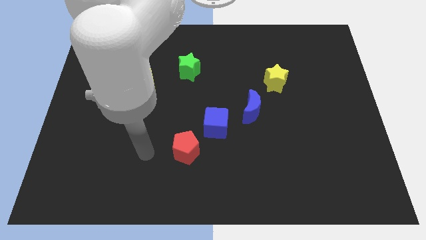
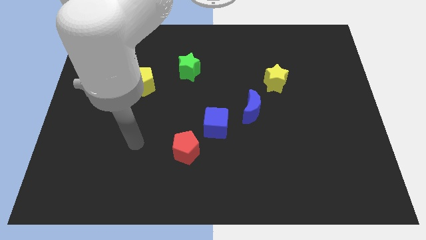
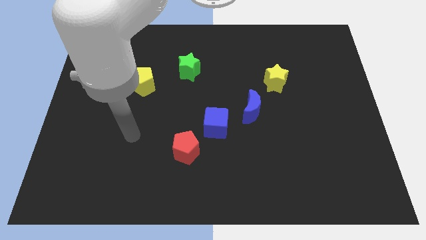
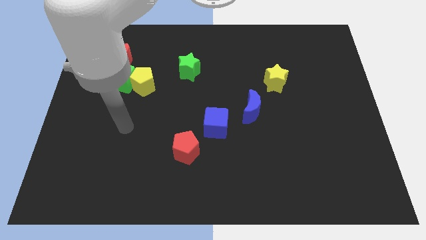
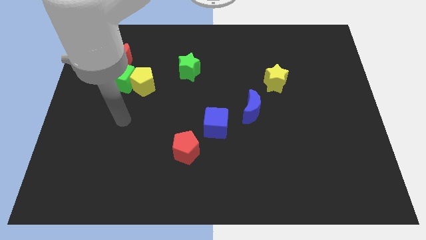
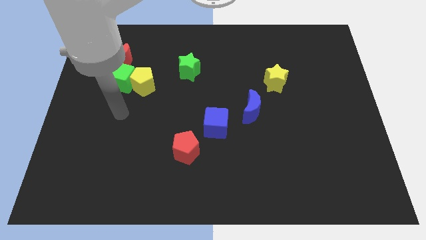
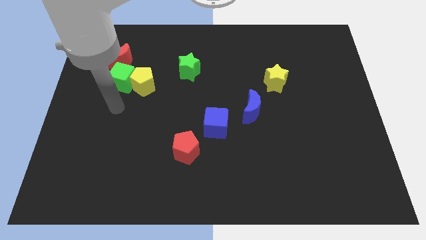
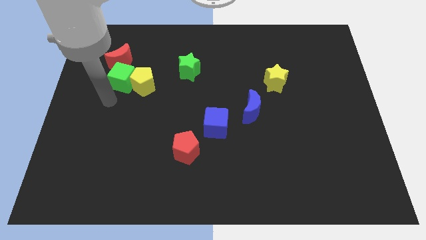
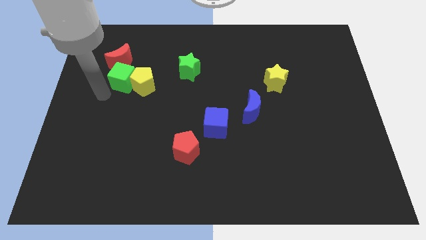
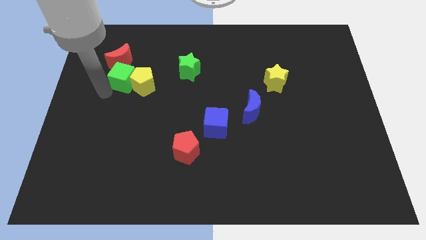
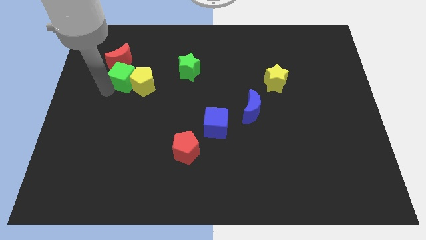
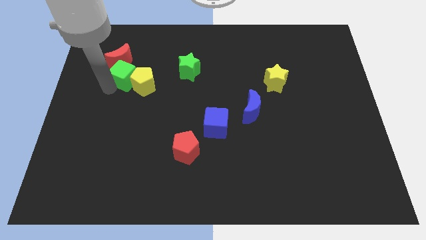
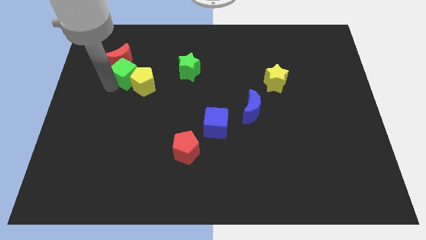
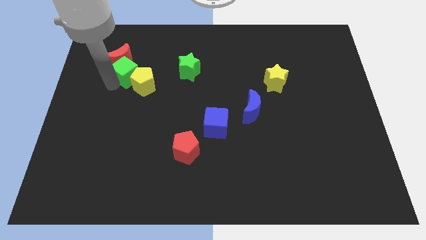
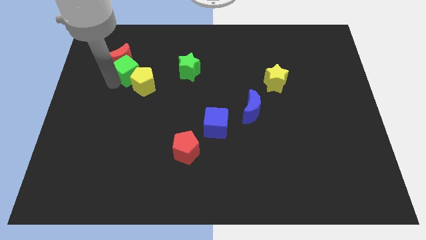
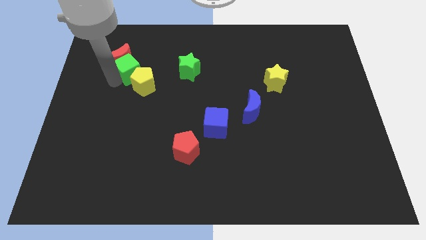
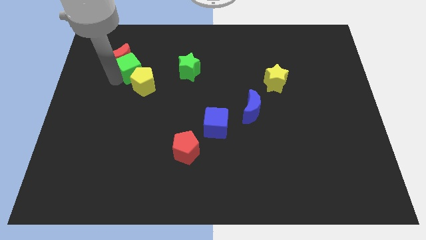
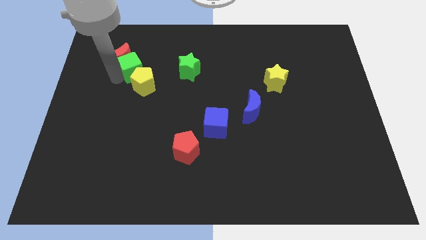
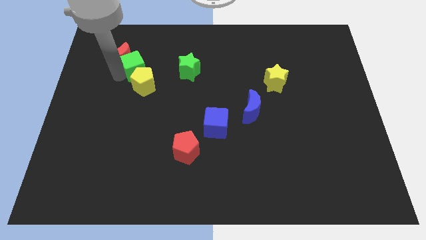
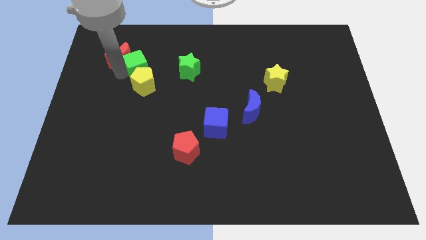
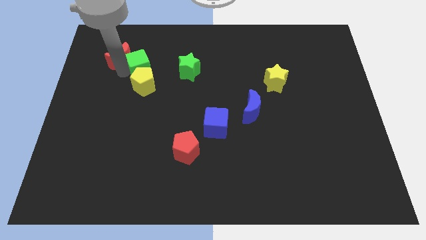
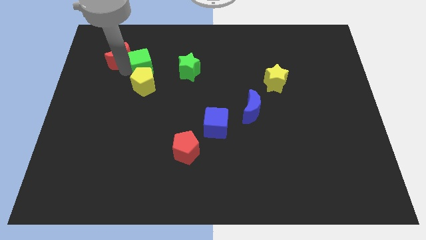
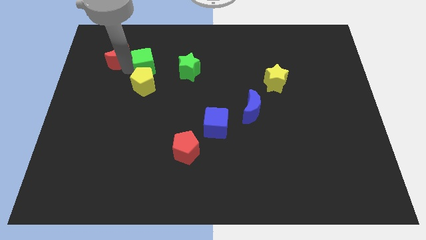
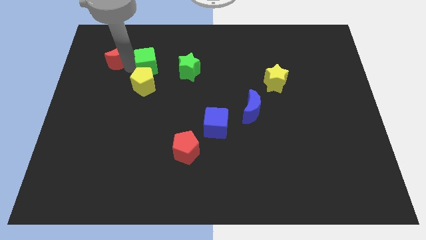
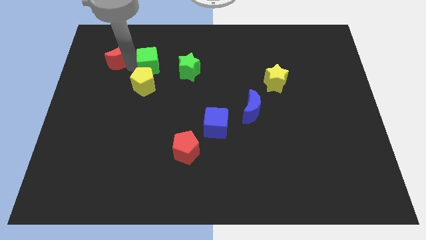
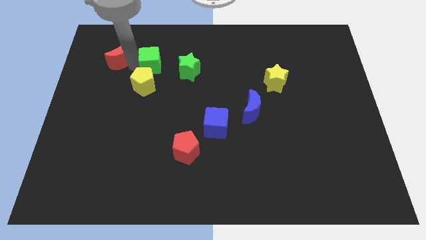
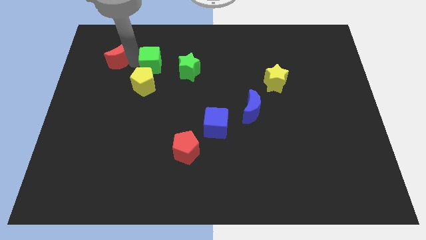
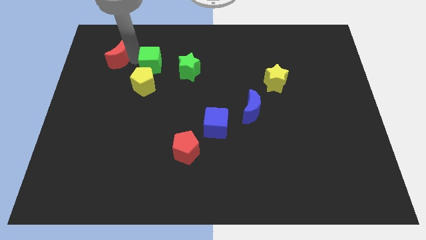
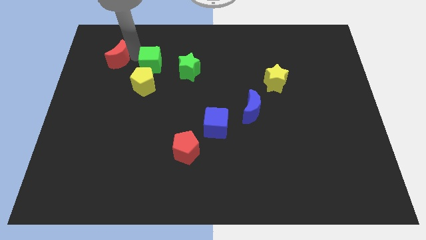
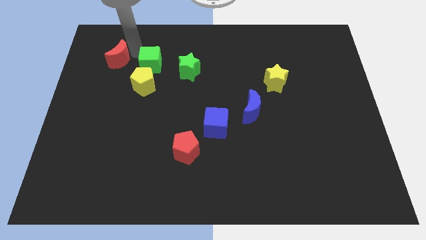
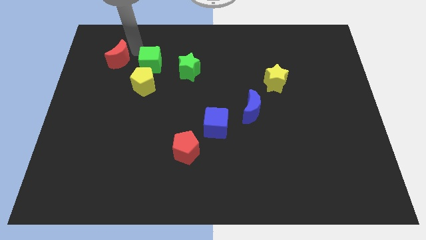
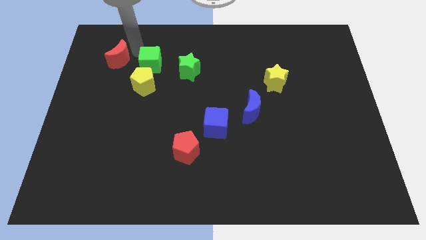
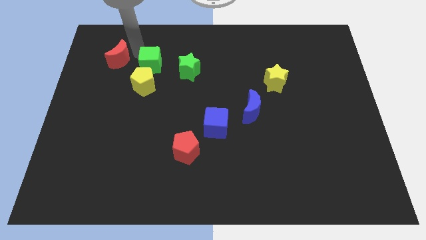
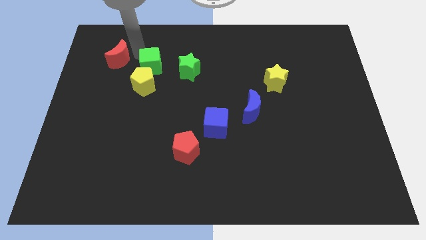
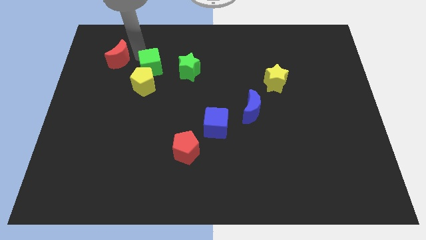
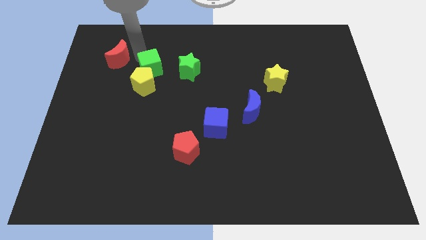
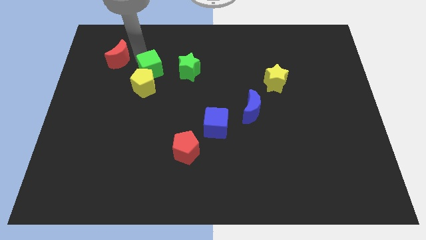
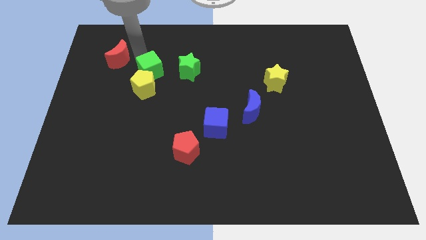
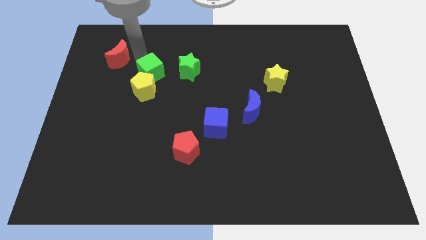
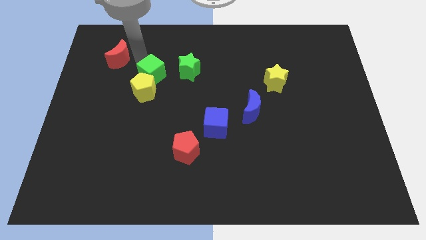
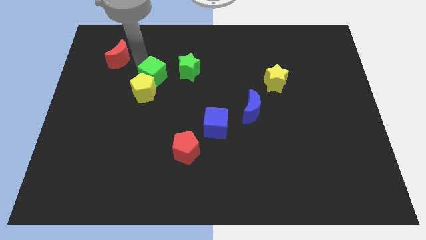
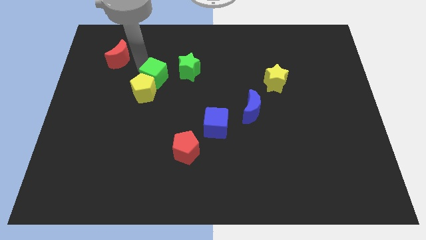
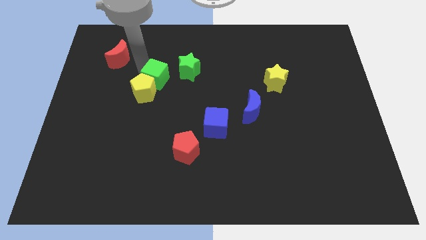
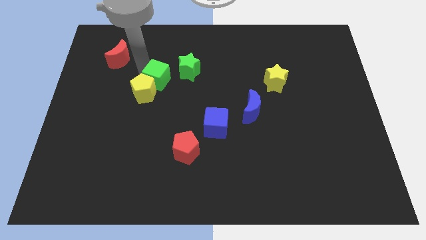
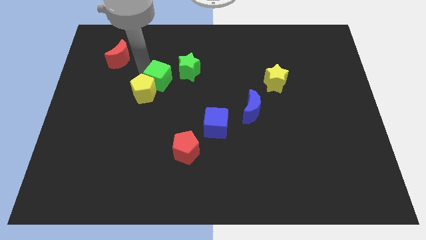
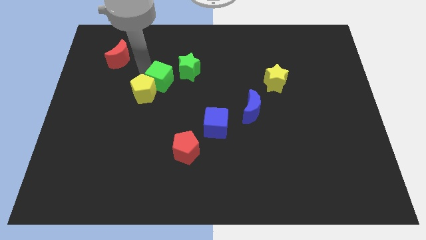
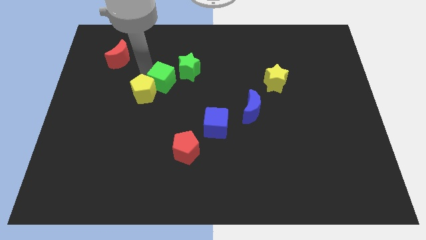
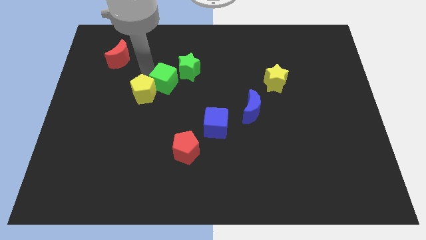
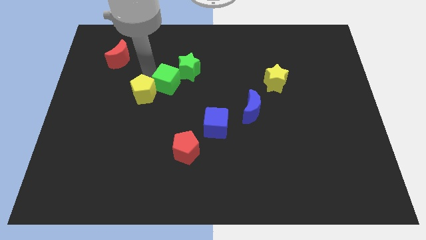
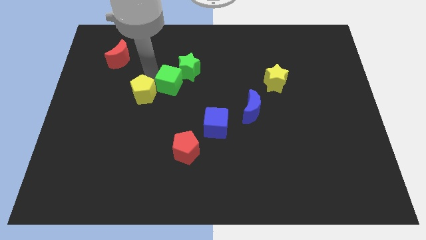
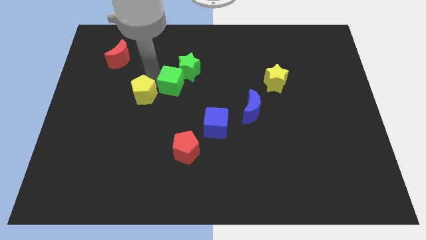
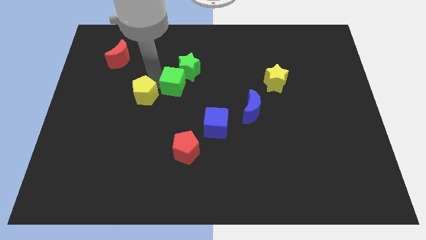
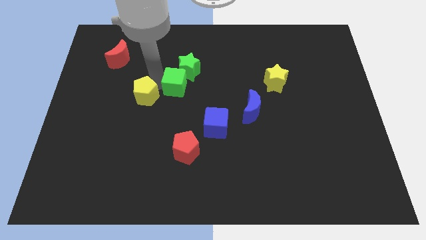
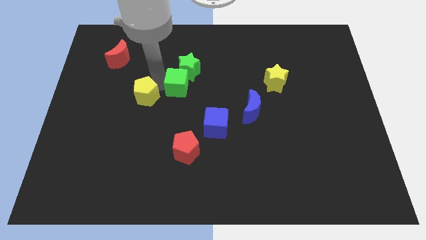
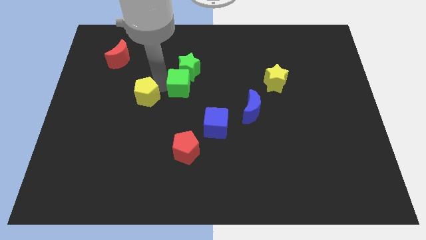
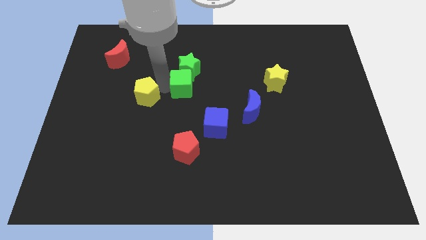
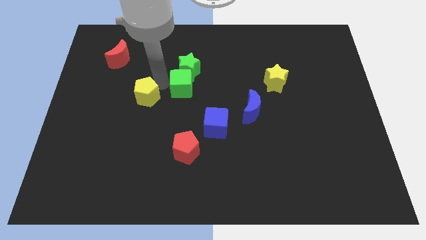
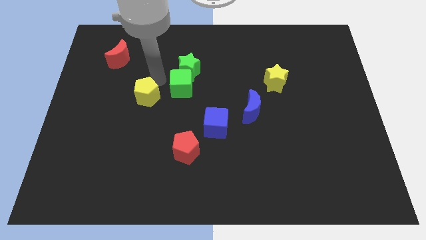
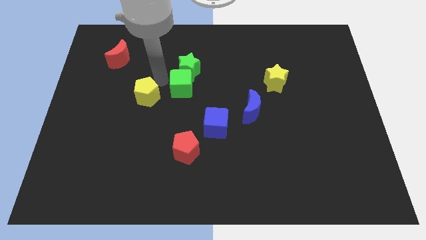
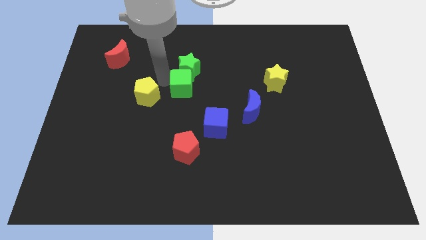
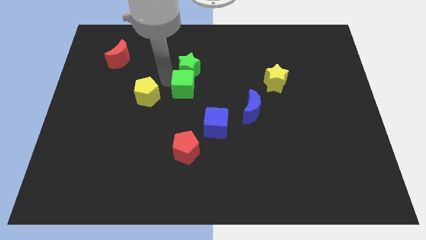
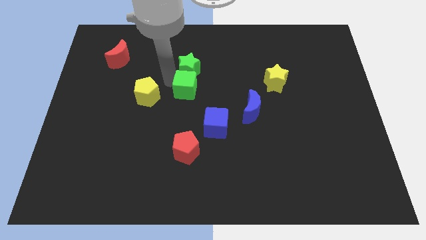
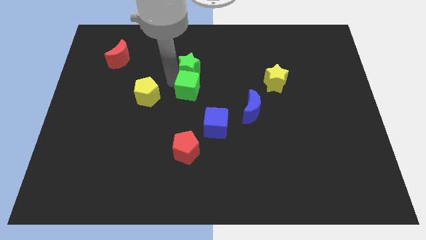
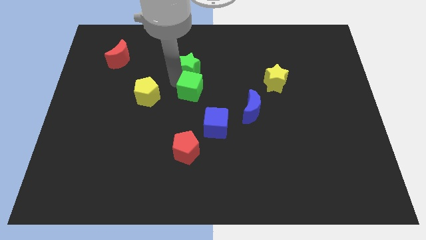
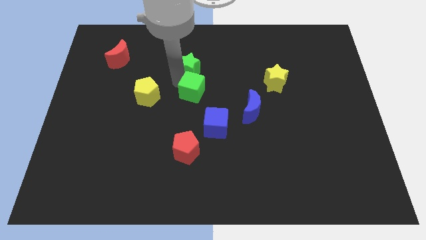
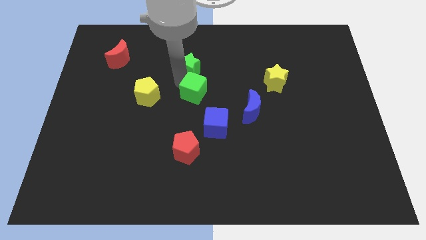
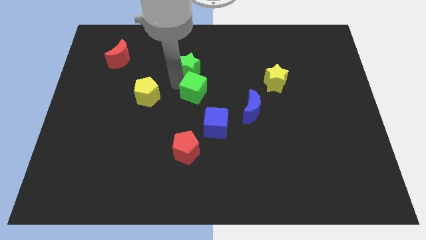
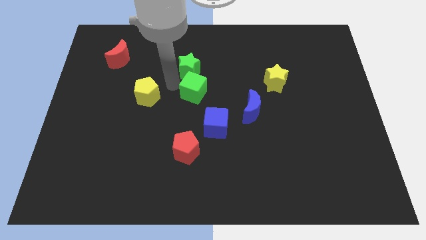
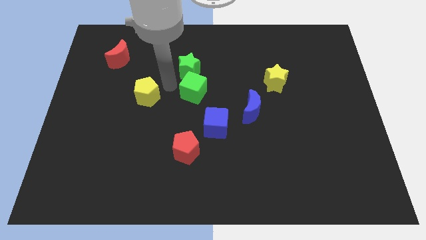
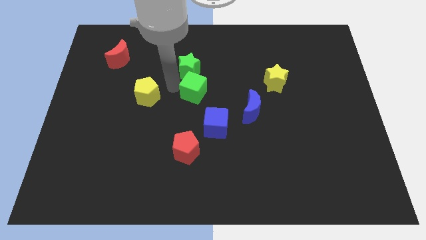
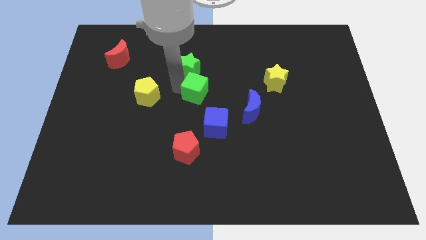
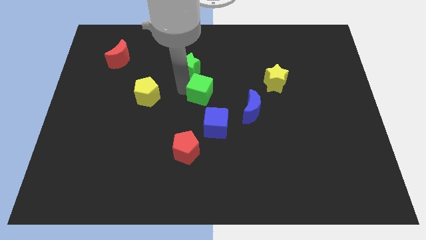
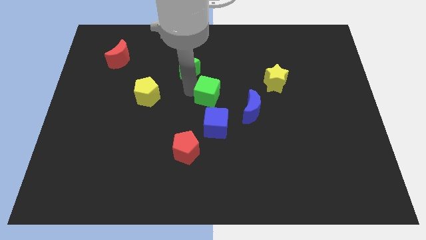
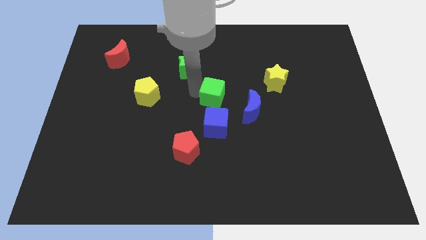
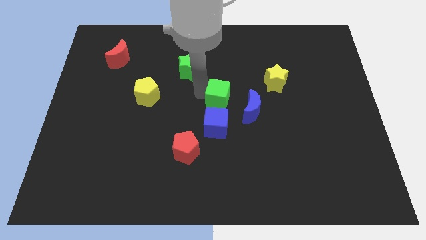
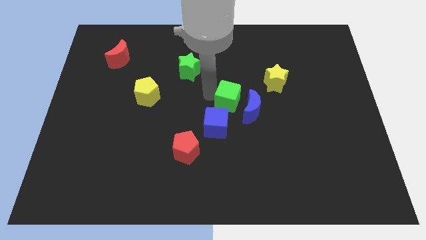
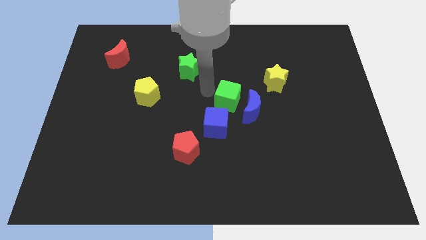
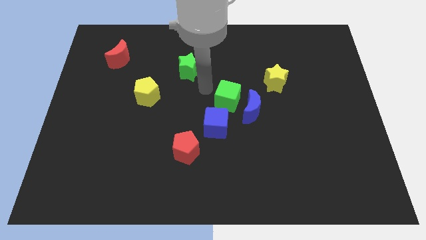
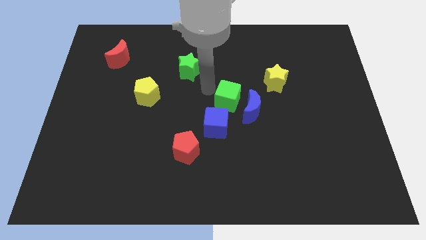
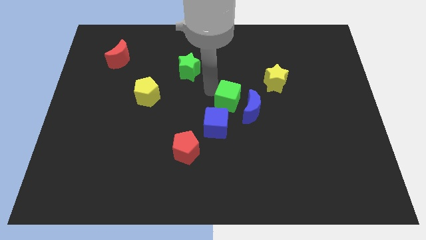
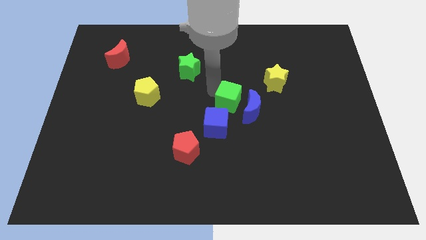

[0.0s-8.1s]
push the green cube next to the blue moon
